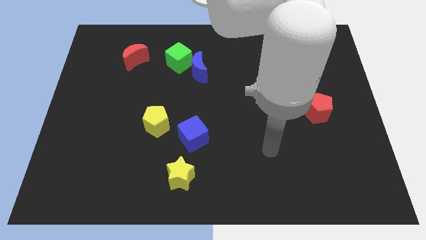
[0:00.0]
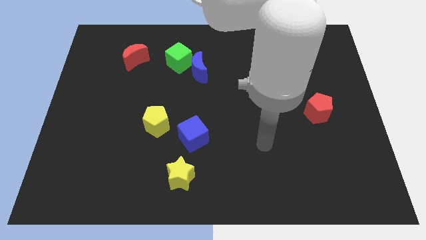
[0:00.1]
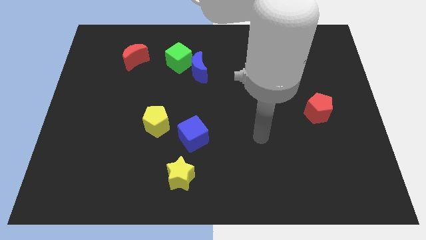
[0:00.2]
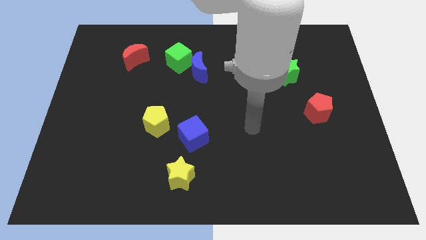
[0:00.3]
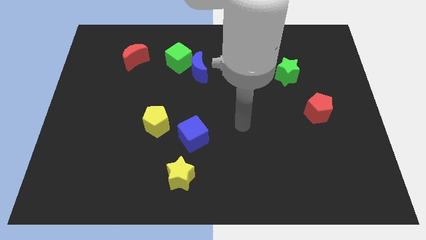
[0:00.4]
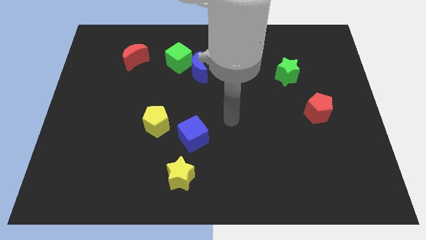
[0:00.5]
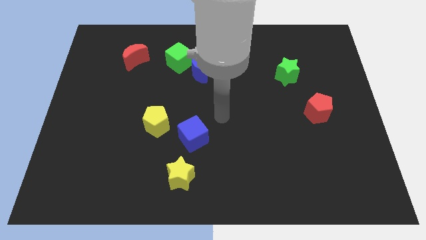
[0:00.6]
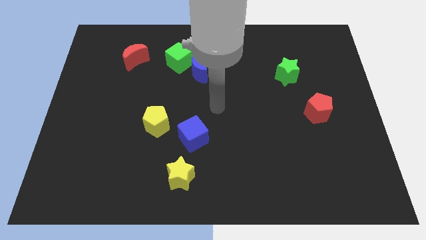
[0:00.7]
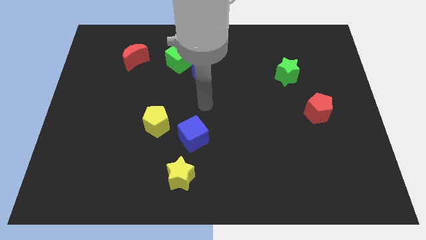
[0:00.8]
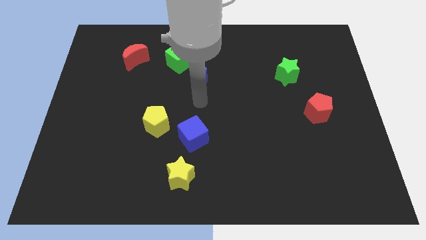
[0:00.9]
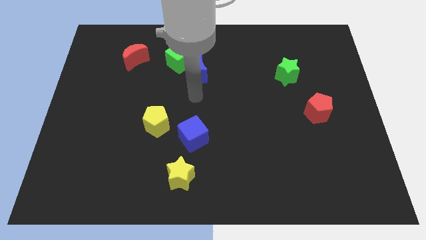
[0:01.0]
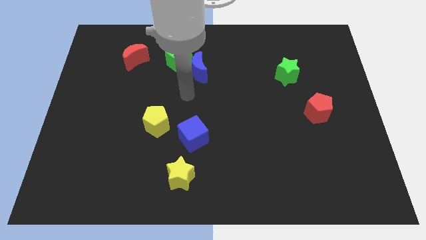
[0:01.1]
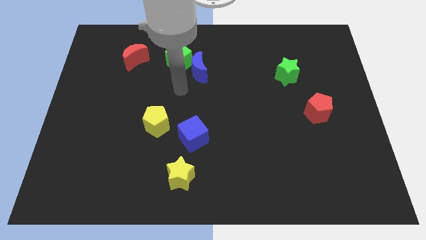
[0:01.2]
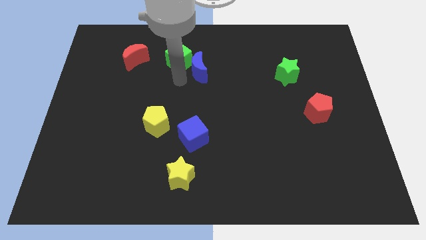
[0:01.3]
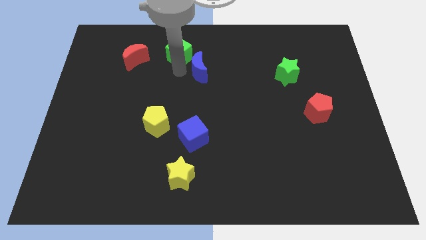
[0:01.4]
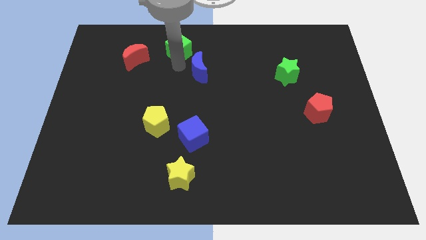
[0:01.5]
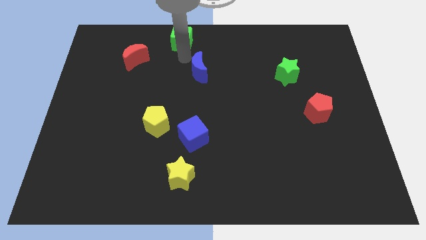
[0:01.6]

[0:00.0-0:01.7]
pull the blue moon apart from the green cube

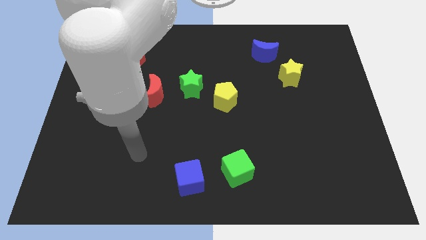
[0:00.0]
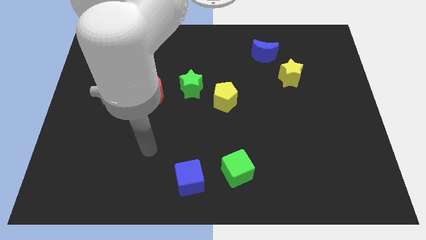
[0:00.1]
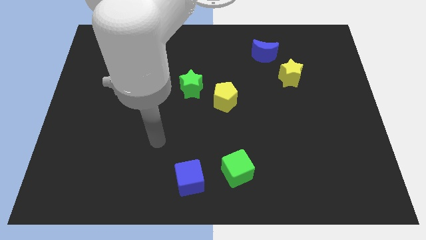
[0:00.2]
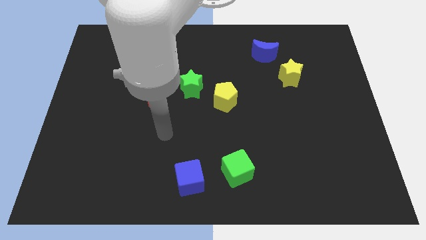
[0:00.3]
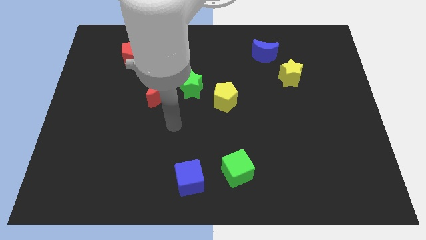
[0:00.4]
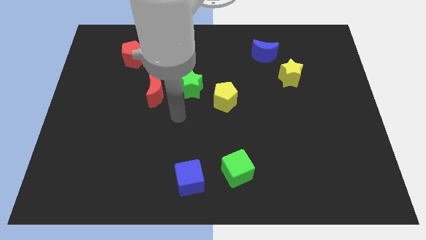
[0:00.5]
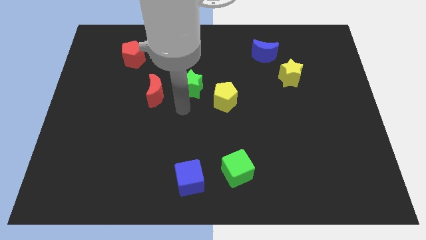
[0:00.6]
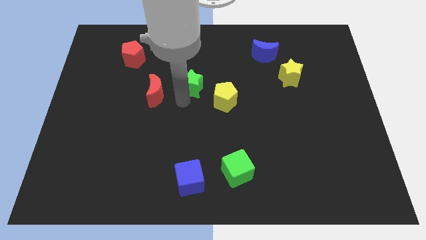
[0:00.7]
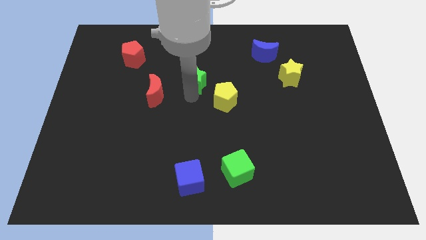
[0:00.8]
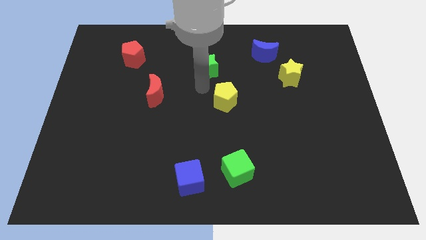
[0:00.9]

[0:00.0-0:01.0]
move the yellow pentagon away from the green star

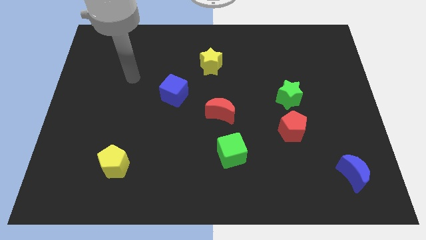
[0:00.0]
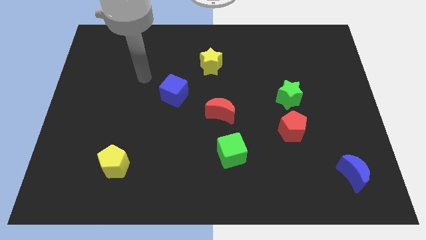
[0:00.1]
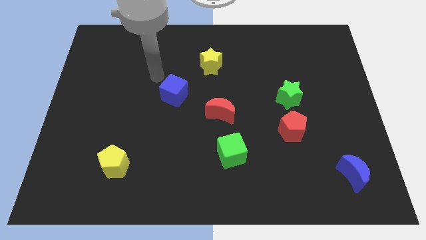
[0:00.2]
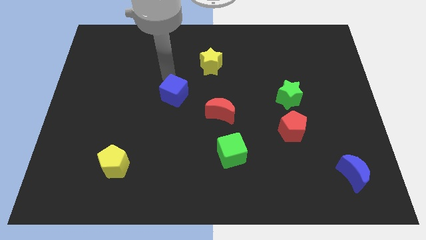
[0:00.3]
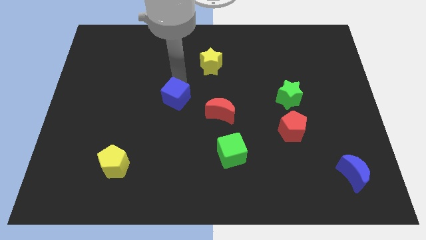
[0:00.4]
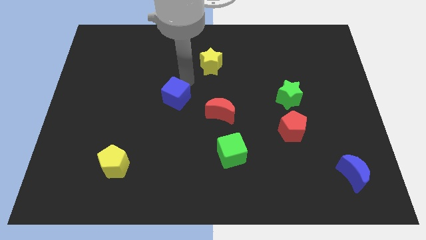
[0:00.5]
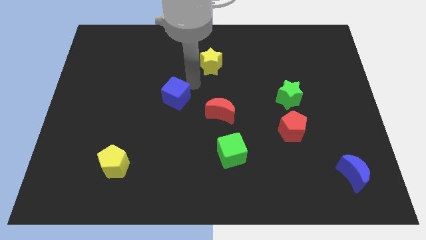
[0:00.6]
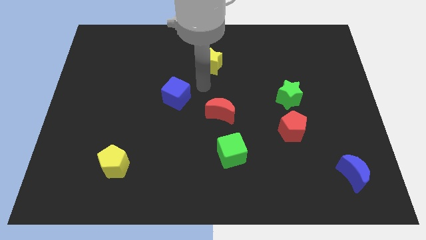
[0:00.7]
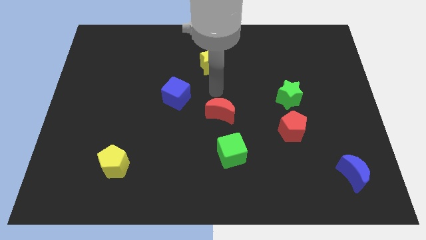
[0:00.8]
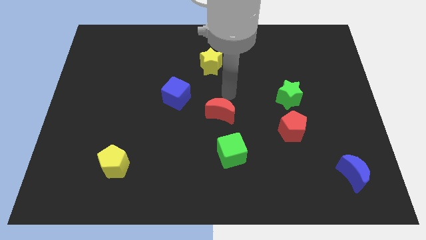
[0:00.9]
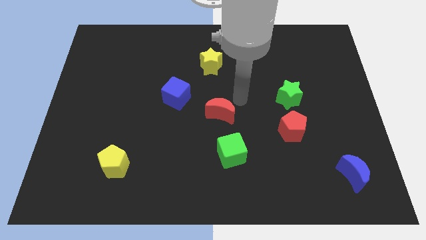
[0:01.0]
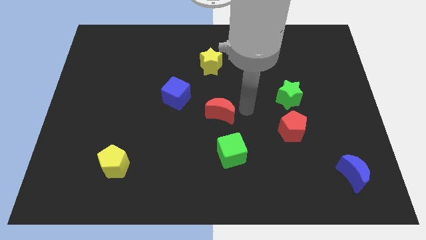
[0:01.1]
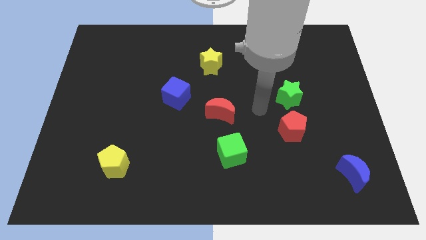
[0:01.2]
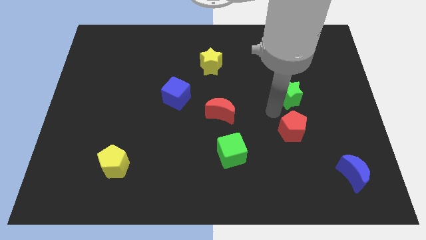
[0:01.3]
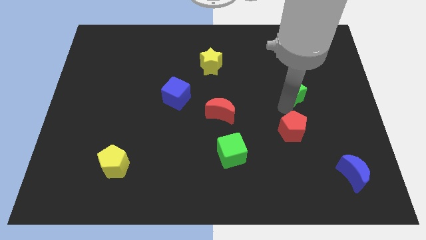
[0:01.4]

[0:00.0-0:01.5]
move the red pentagon away from the green star

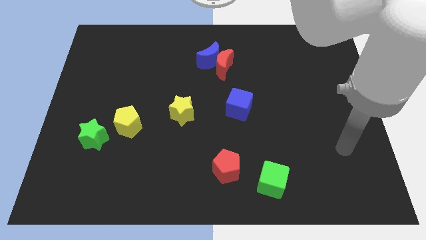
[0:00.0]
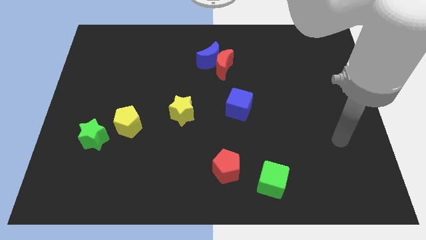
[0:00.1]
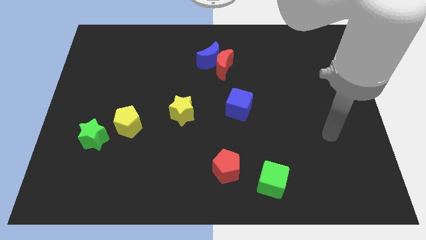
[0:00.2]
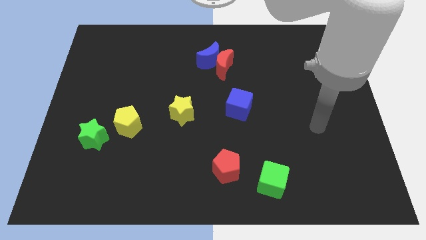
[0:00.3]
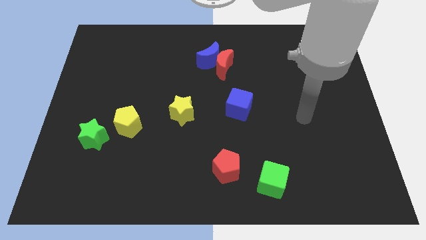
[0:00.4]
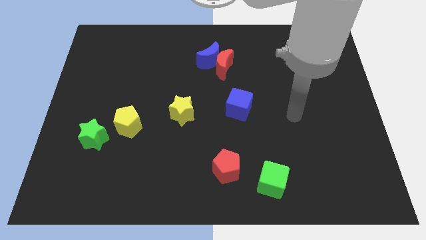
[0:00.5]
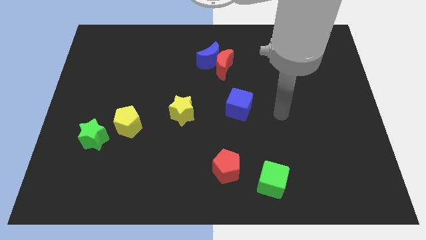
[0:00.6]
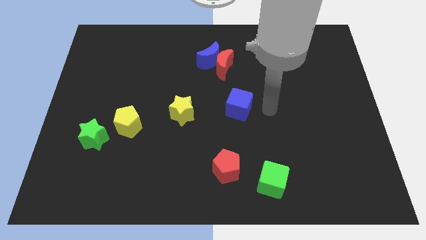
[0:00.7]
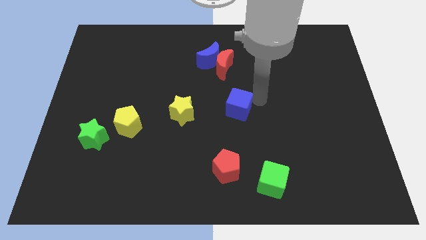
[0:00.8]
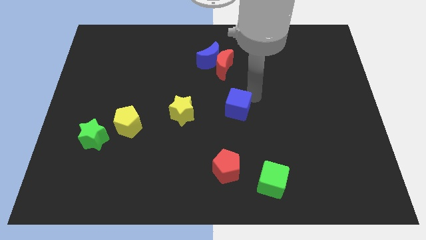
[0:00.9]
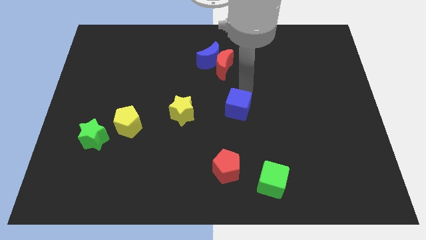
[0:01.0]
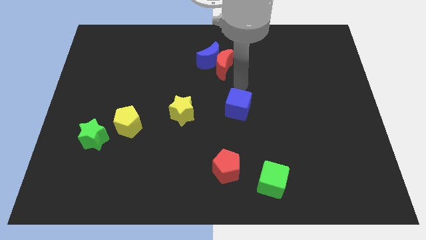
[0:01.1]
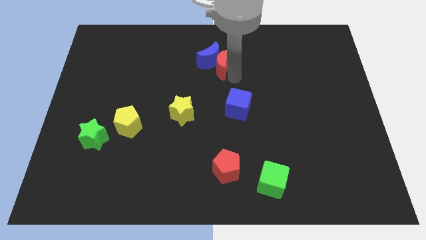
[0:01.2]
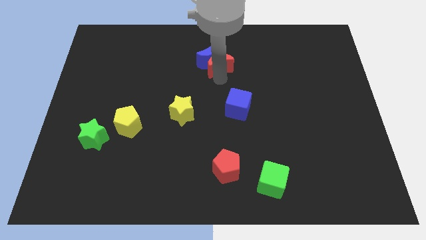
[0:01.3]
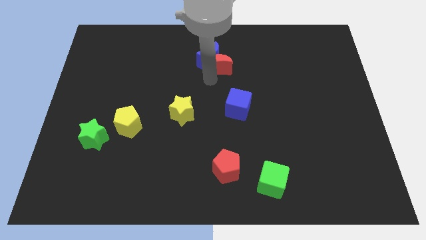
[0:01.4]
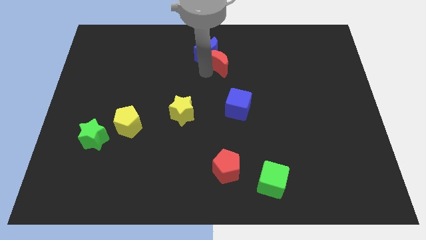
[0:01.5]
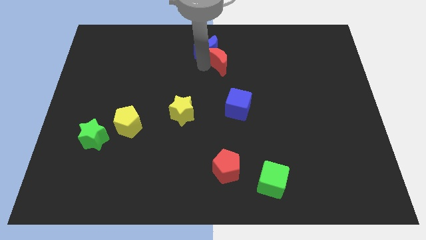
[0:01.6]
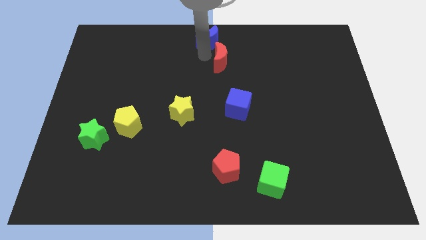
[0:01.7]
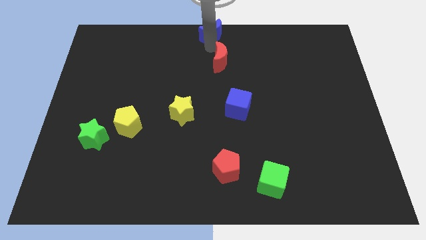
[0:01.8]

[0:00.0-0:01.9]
move the red moon away from the blue moon

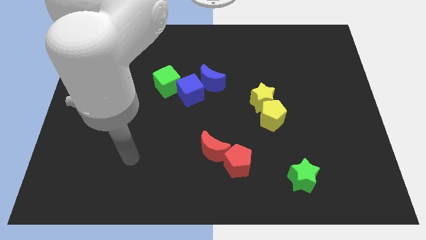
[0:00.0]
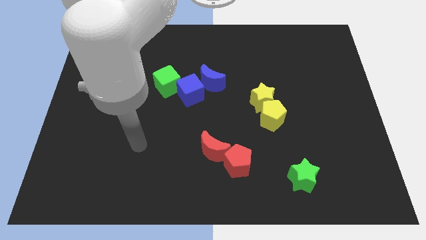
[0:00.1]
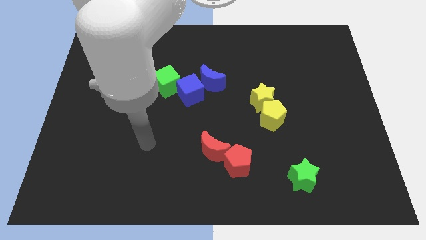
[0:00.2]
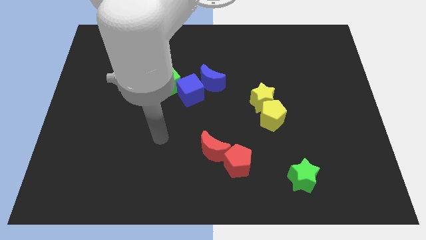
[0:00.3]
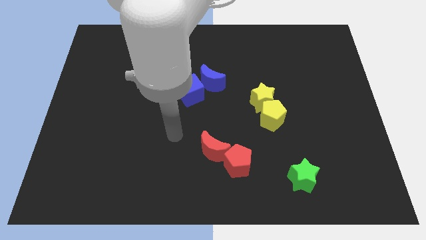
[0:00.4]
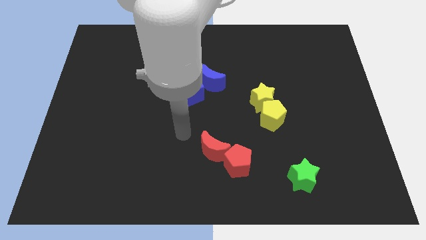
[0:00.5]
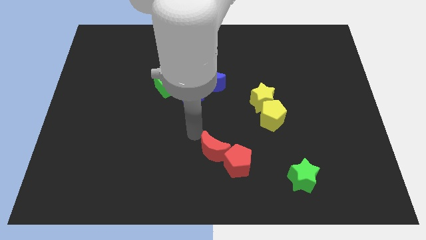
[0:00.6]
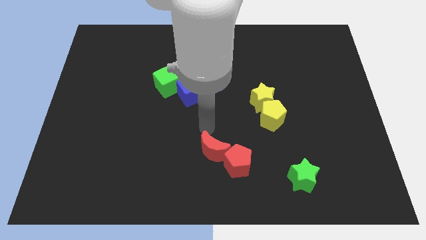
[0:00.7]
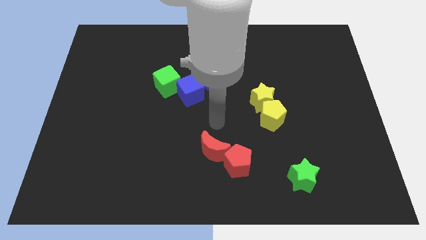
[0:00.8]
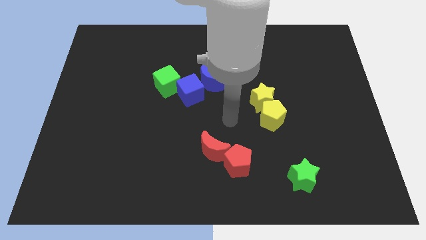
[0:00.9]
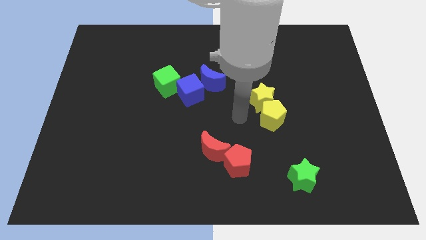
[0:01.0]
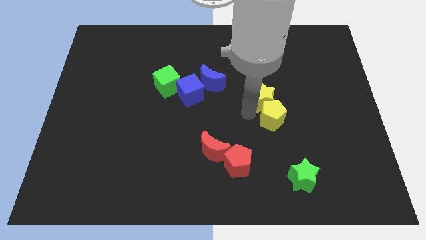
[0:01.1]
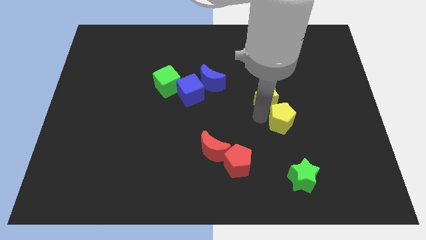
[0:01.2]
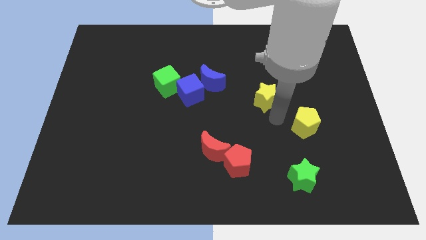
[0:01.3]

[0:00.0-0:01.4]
move the yellow star away from the yellow pentagon

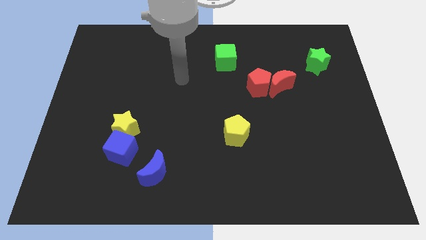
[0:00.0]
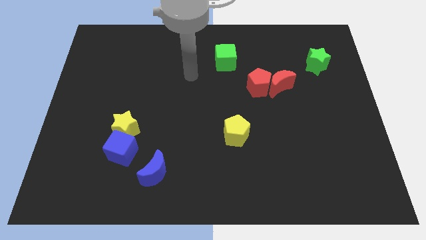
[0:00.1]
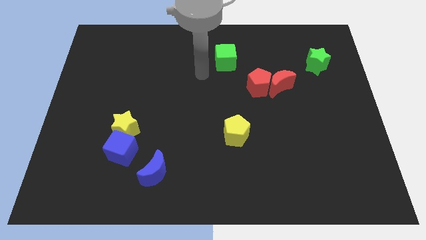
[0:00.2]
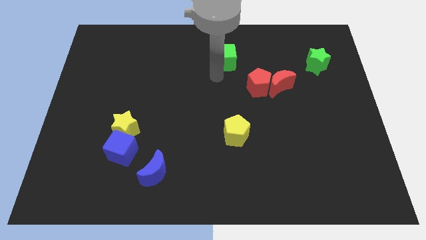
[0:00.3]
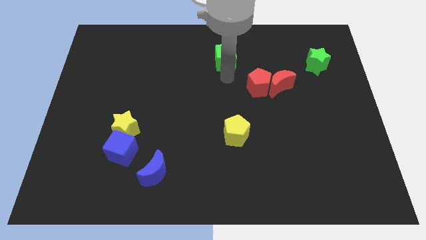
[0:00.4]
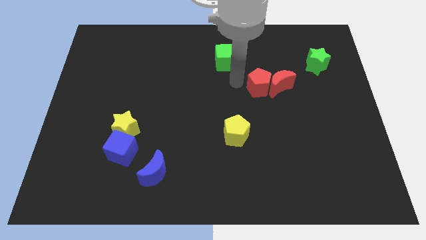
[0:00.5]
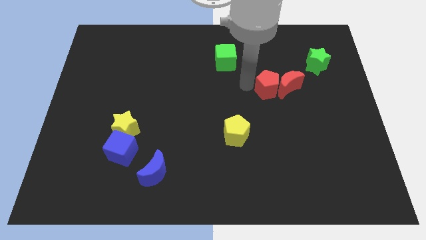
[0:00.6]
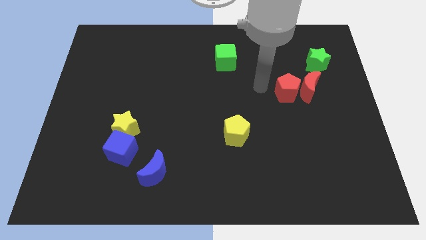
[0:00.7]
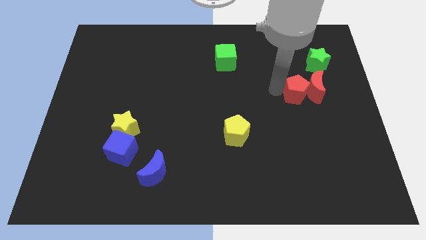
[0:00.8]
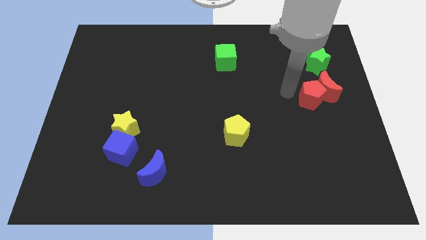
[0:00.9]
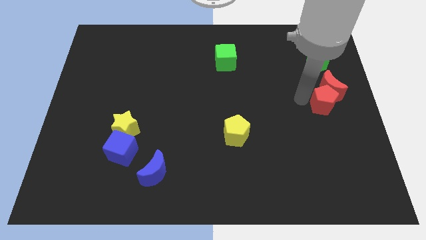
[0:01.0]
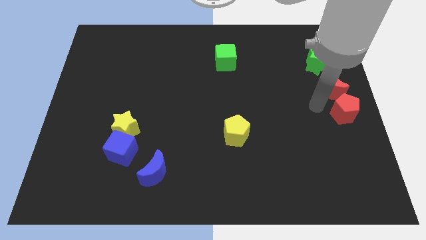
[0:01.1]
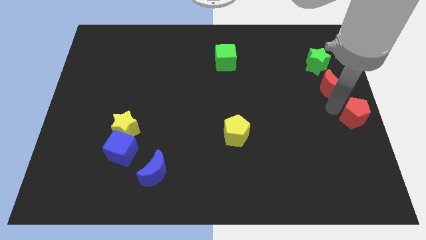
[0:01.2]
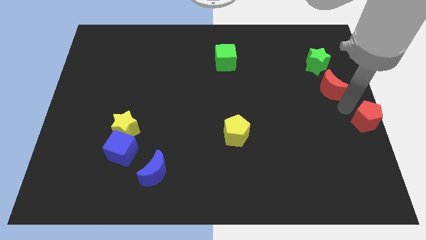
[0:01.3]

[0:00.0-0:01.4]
separate the red moon from the red pentagon

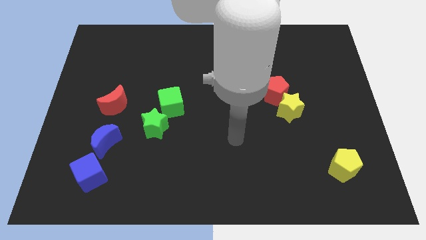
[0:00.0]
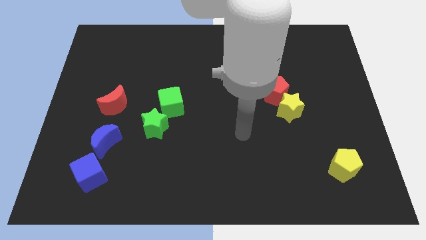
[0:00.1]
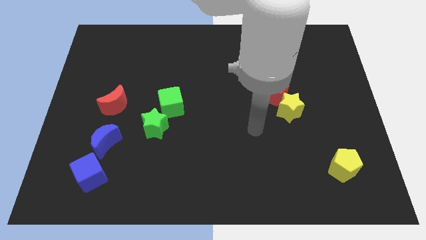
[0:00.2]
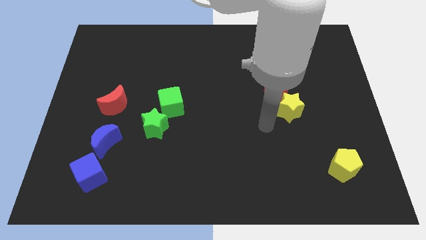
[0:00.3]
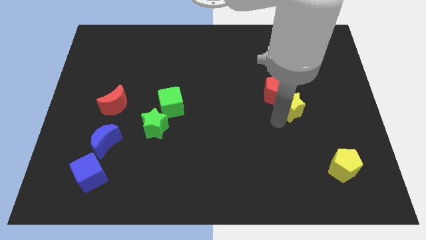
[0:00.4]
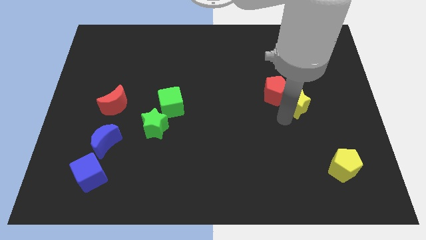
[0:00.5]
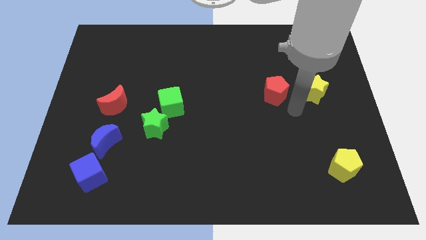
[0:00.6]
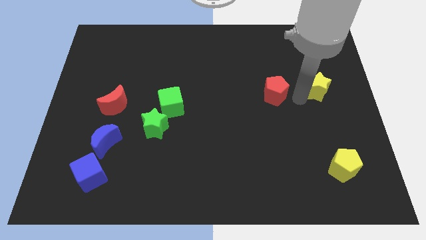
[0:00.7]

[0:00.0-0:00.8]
pull the red pentagon apart from the yellow star
